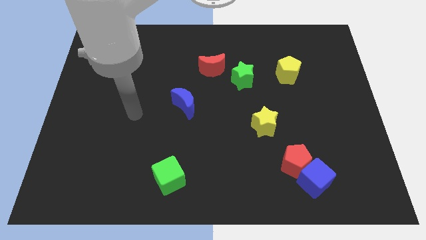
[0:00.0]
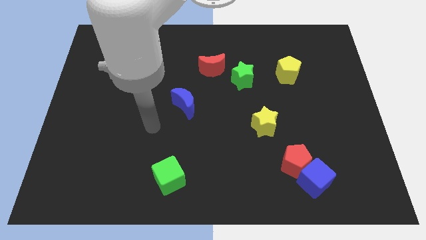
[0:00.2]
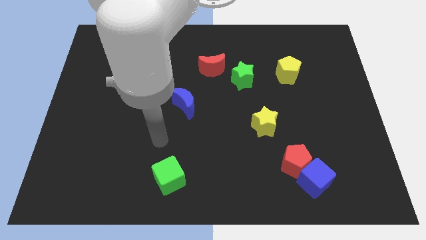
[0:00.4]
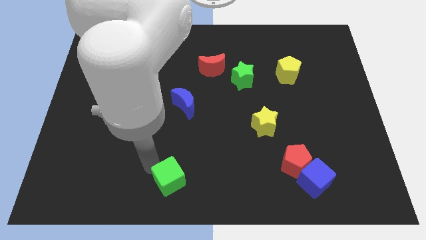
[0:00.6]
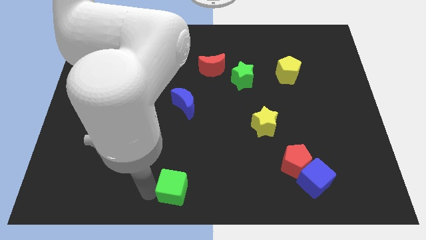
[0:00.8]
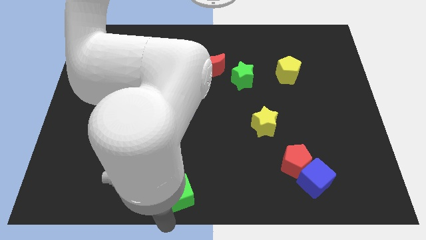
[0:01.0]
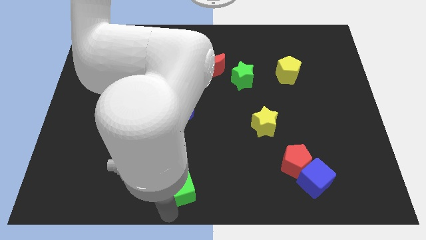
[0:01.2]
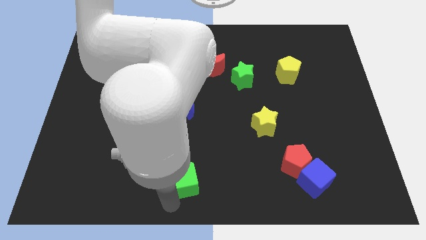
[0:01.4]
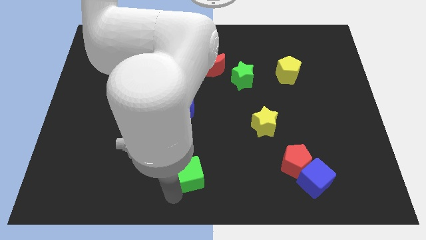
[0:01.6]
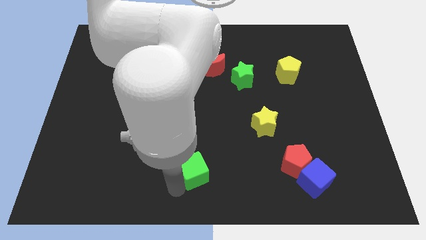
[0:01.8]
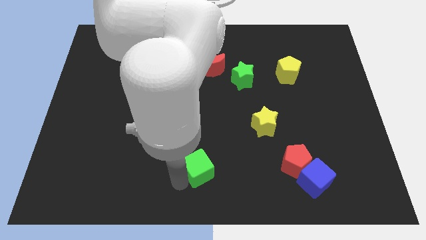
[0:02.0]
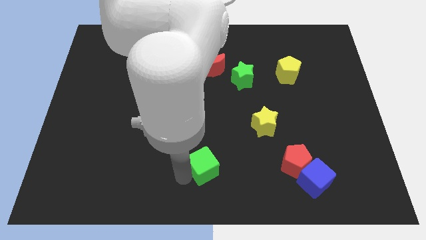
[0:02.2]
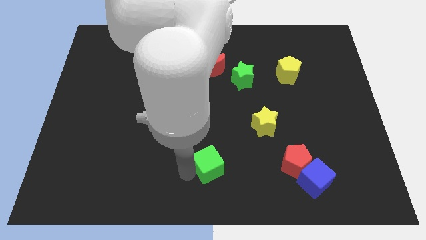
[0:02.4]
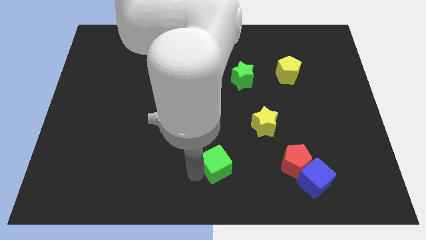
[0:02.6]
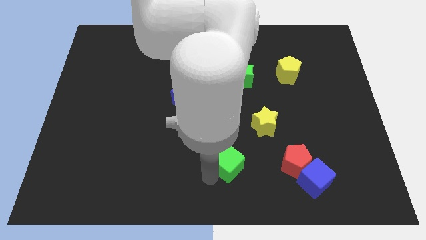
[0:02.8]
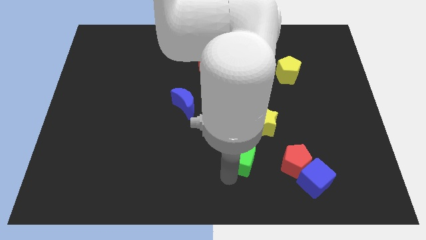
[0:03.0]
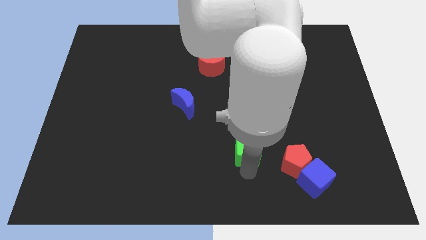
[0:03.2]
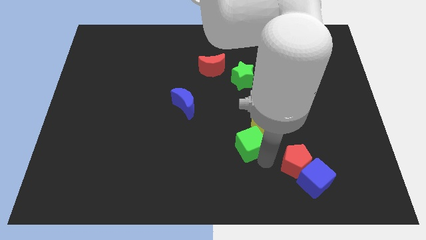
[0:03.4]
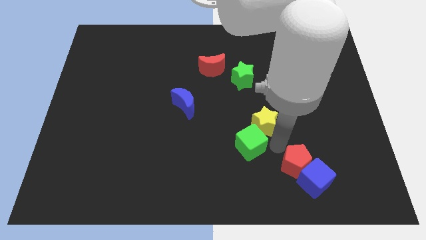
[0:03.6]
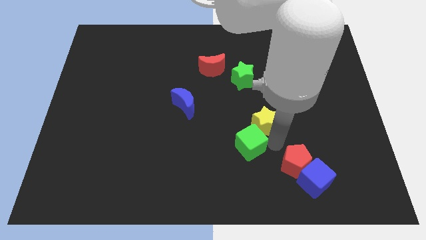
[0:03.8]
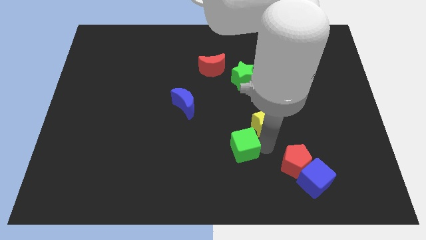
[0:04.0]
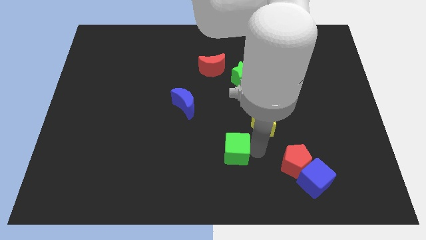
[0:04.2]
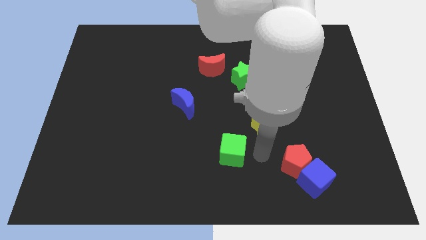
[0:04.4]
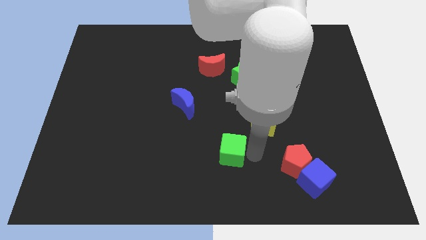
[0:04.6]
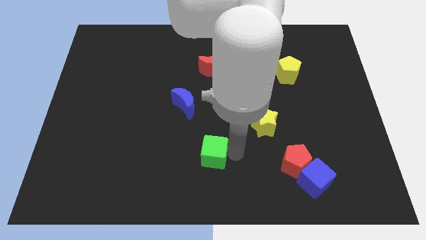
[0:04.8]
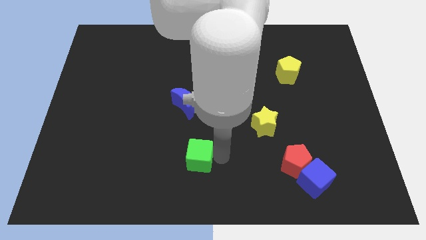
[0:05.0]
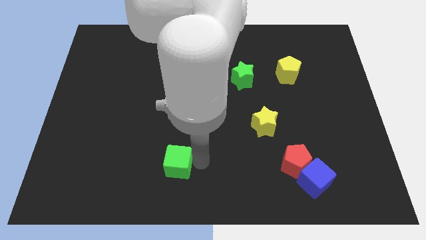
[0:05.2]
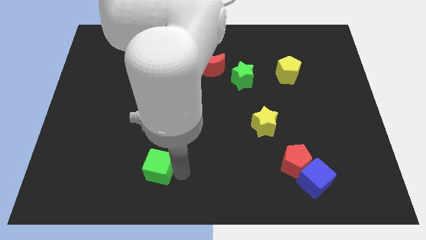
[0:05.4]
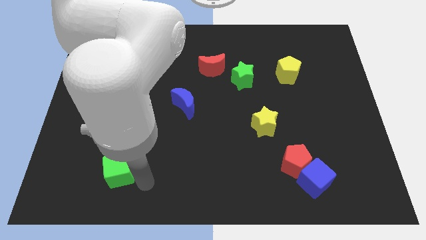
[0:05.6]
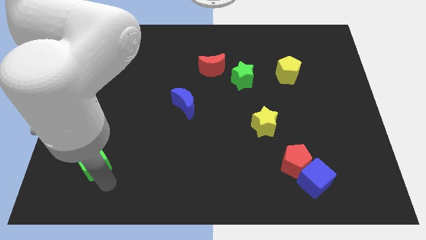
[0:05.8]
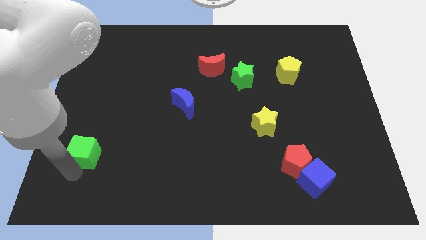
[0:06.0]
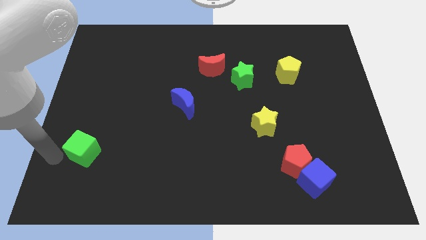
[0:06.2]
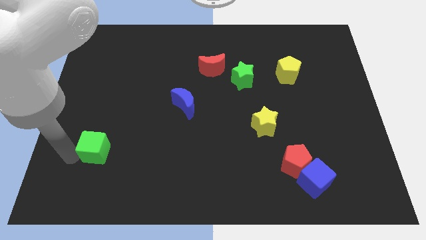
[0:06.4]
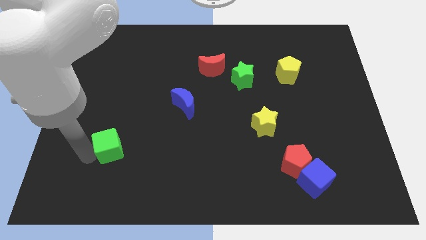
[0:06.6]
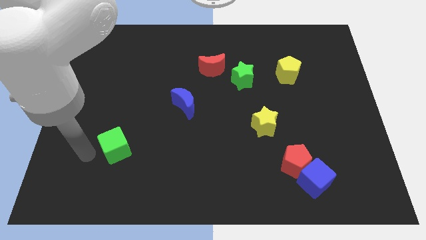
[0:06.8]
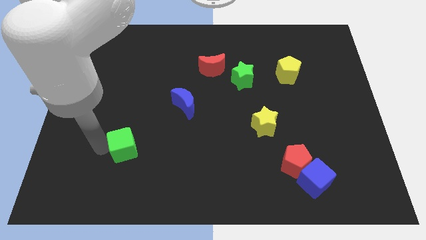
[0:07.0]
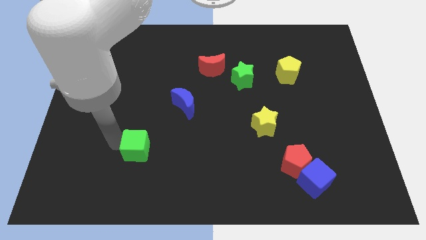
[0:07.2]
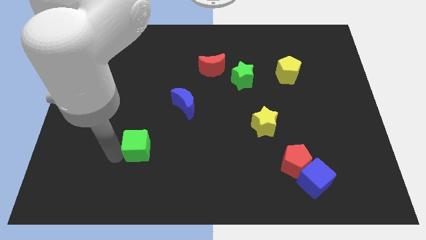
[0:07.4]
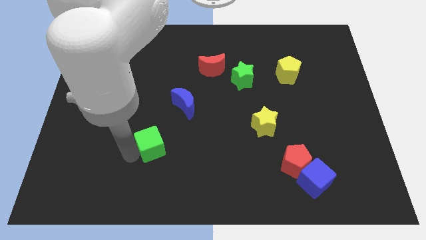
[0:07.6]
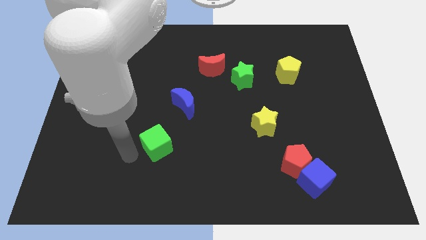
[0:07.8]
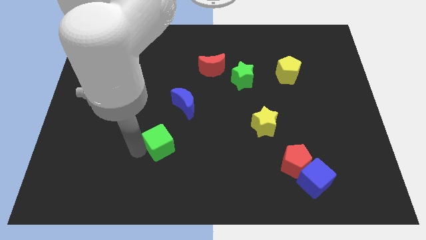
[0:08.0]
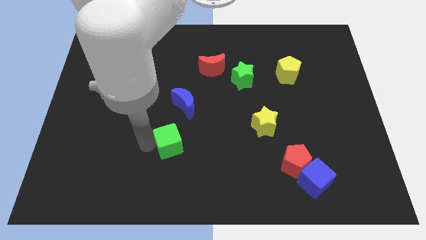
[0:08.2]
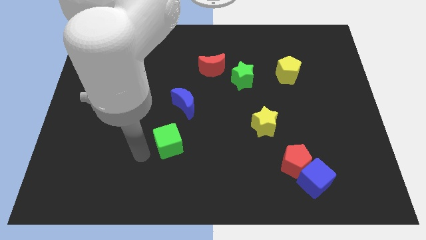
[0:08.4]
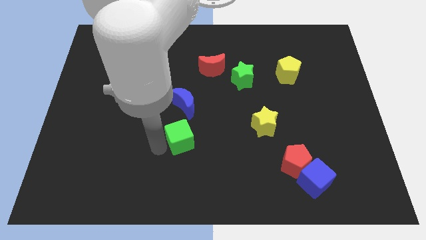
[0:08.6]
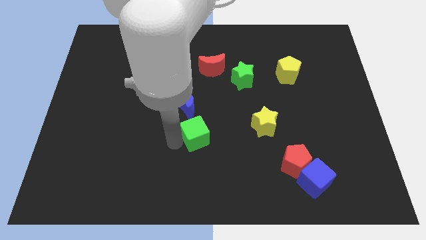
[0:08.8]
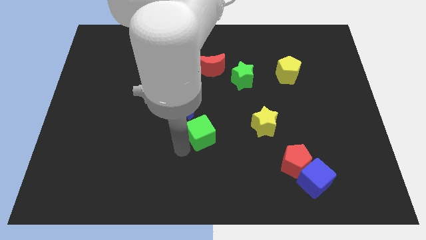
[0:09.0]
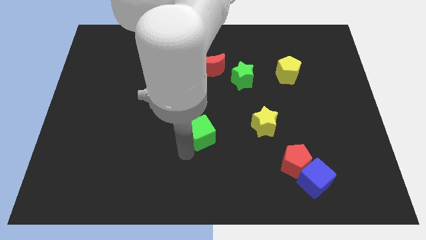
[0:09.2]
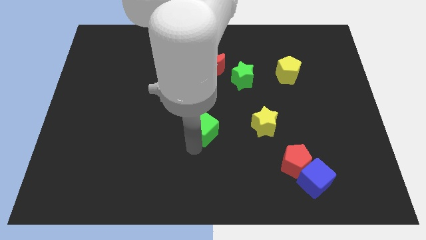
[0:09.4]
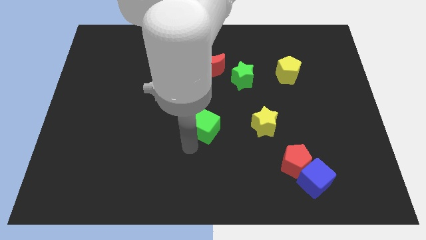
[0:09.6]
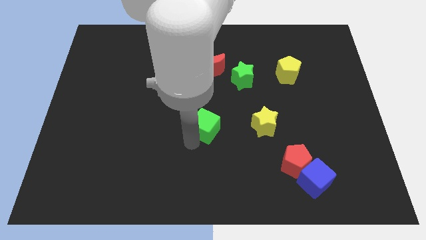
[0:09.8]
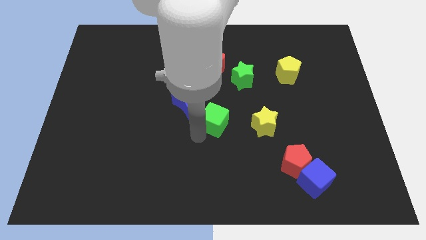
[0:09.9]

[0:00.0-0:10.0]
slide the green cube just right of the blue moon

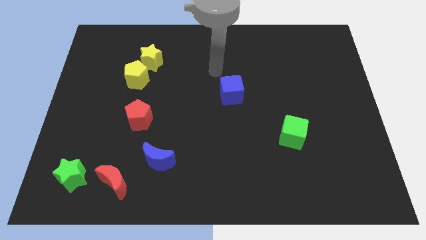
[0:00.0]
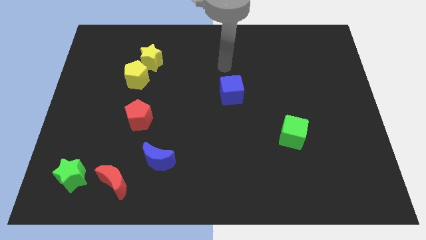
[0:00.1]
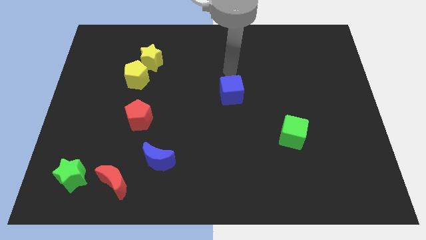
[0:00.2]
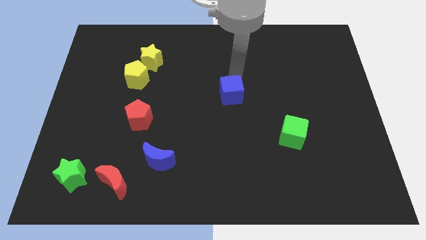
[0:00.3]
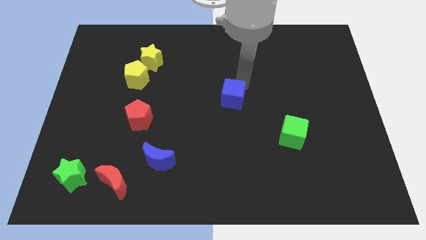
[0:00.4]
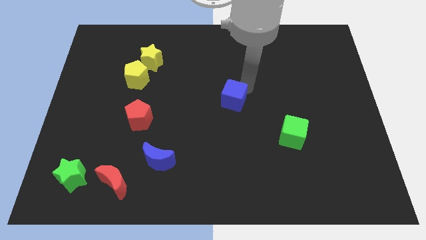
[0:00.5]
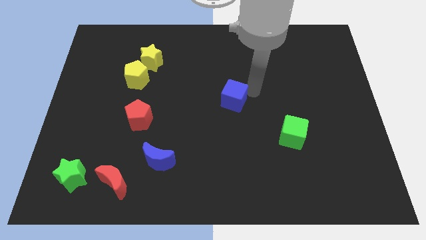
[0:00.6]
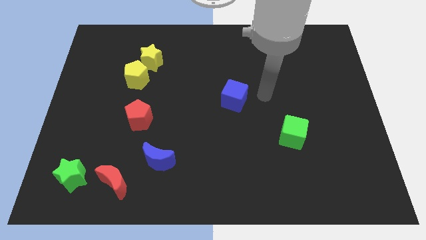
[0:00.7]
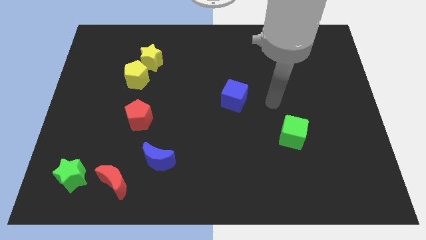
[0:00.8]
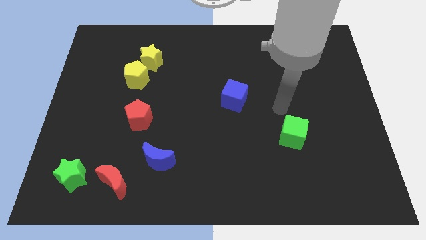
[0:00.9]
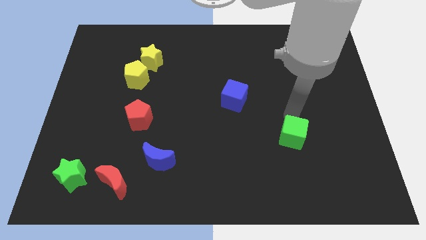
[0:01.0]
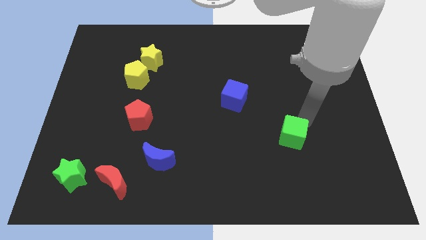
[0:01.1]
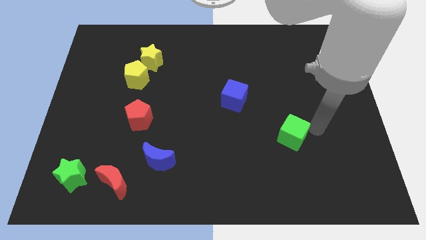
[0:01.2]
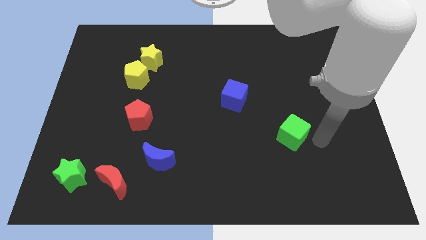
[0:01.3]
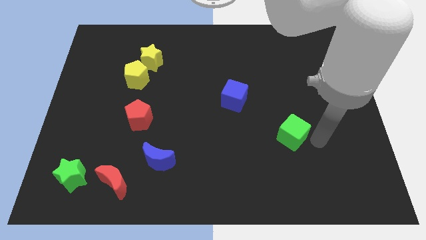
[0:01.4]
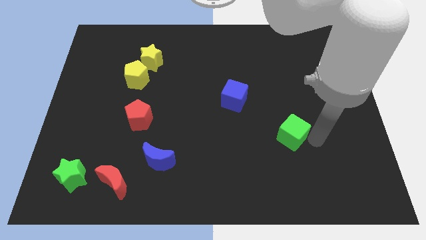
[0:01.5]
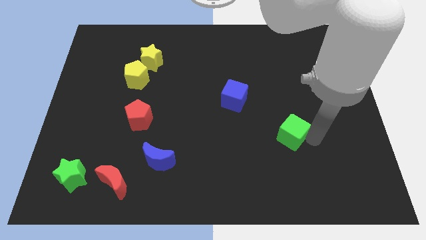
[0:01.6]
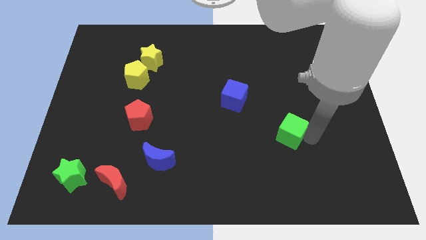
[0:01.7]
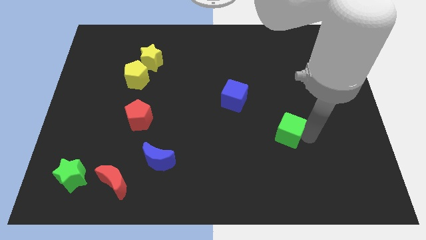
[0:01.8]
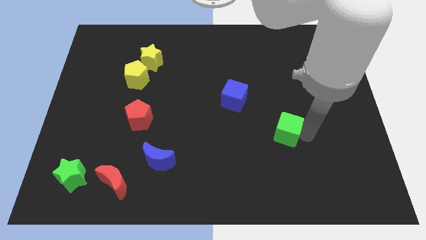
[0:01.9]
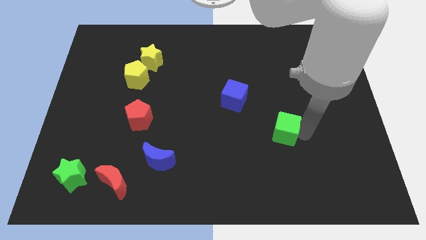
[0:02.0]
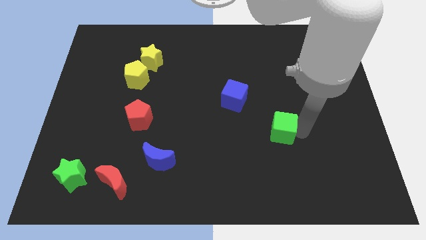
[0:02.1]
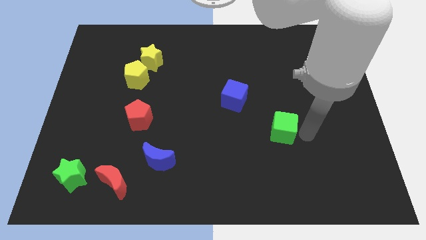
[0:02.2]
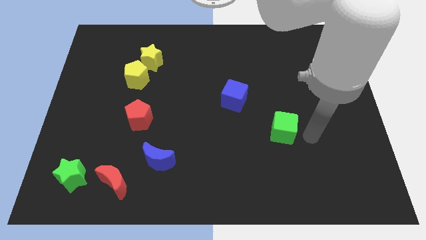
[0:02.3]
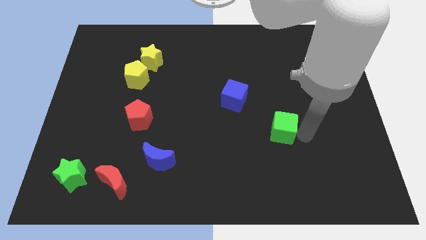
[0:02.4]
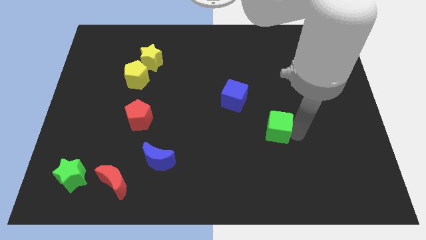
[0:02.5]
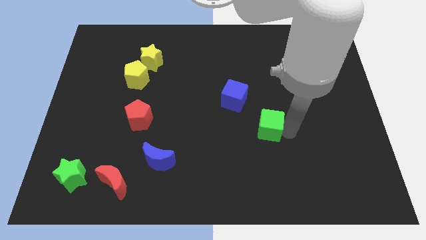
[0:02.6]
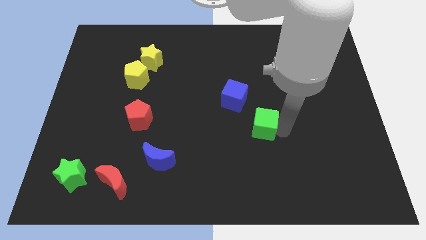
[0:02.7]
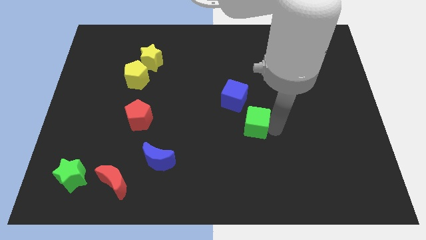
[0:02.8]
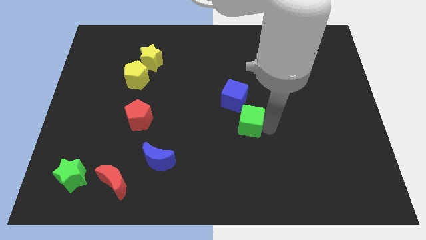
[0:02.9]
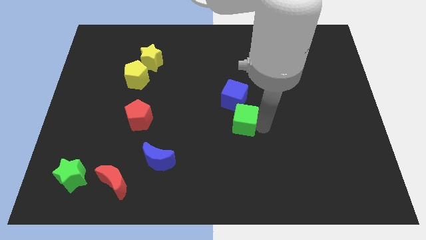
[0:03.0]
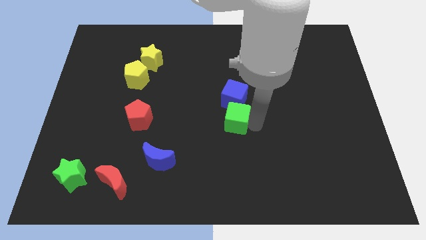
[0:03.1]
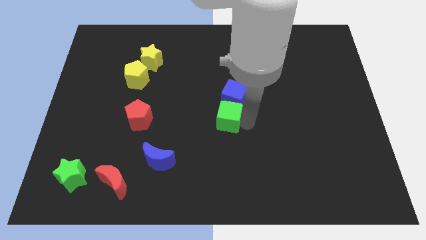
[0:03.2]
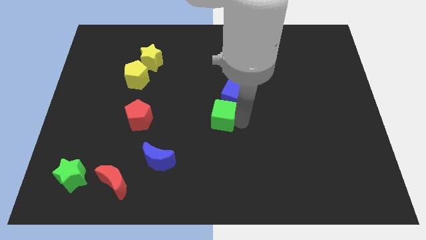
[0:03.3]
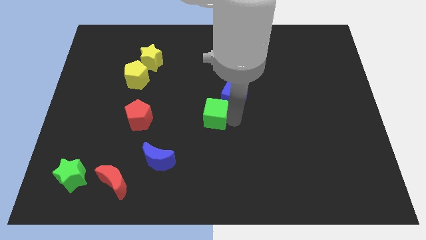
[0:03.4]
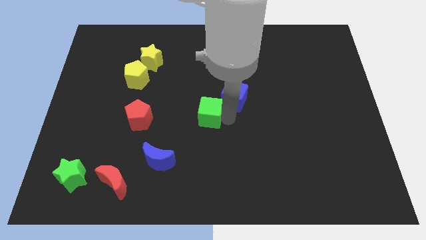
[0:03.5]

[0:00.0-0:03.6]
move the green cube to the right of the red pentagon
